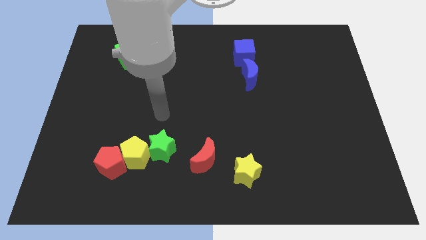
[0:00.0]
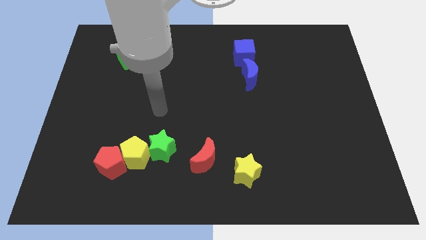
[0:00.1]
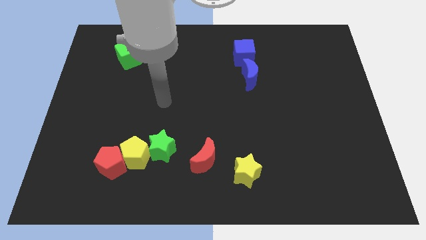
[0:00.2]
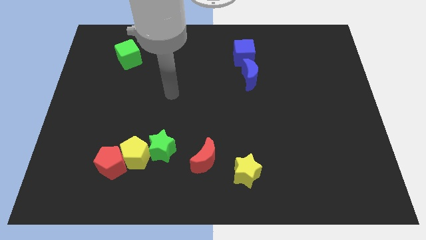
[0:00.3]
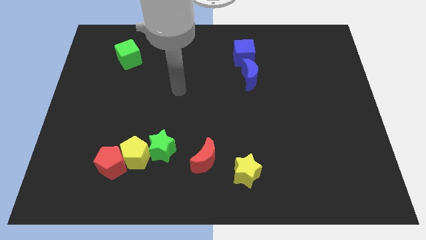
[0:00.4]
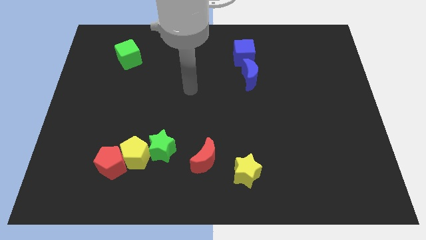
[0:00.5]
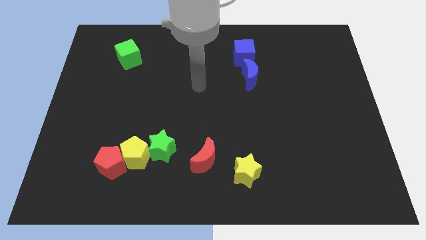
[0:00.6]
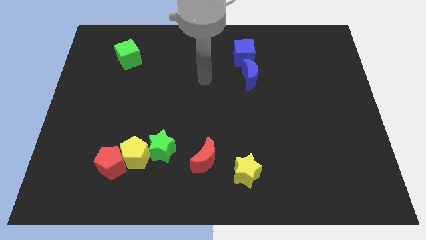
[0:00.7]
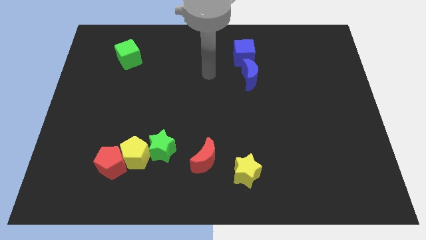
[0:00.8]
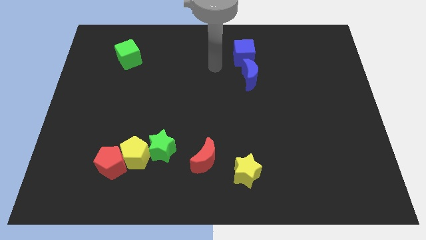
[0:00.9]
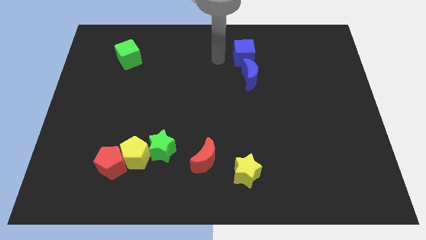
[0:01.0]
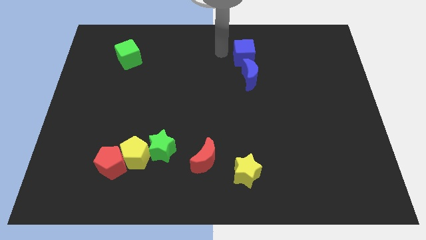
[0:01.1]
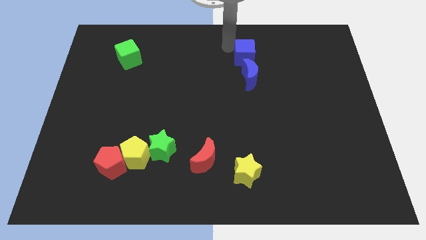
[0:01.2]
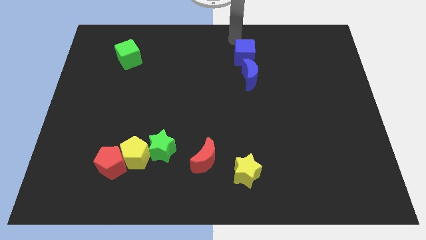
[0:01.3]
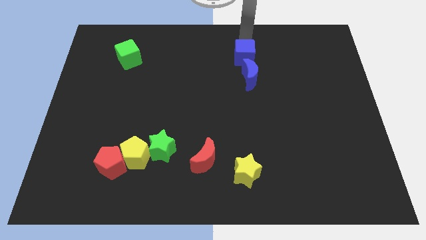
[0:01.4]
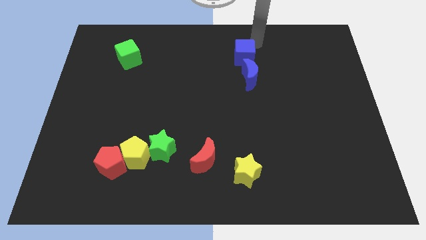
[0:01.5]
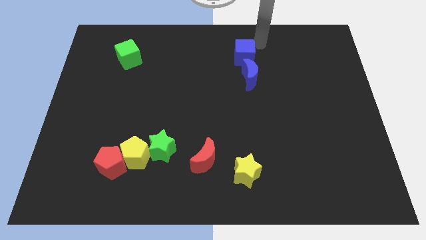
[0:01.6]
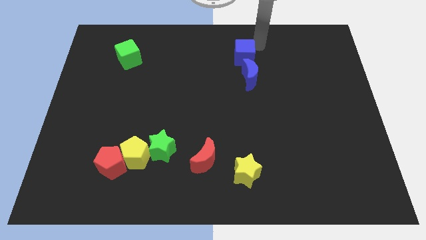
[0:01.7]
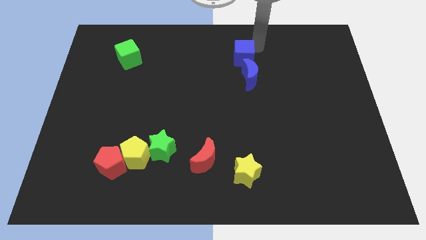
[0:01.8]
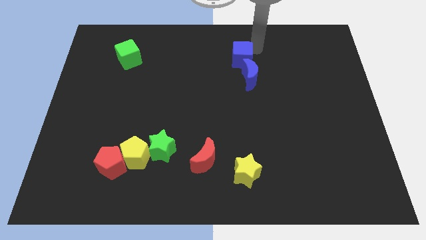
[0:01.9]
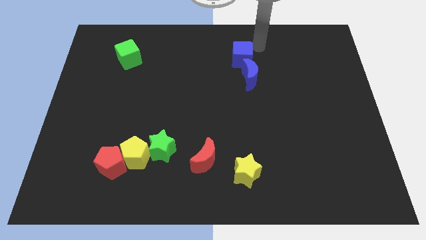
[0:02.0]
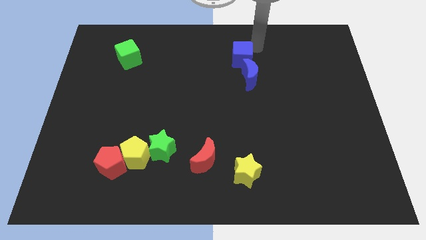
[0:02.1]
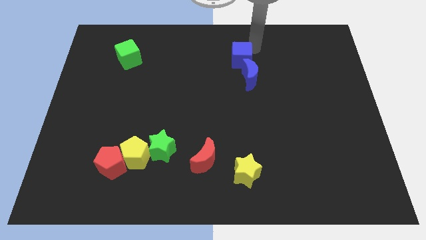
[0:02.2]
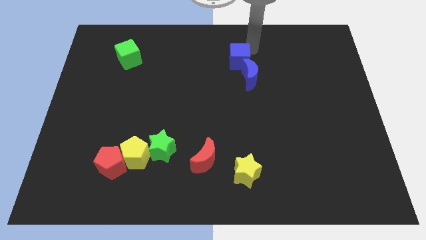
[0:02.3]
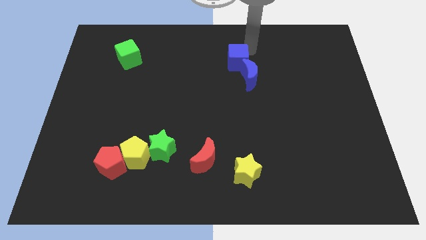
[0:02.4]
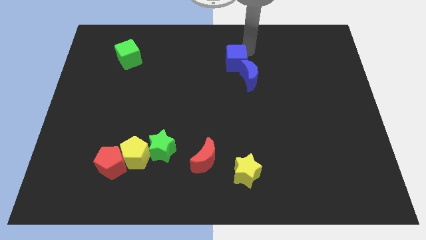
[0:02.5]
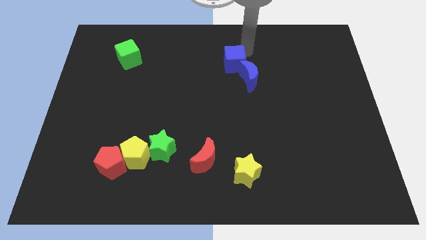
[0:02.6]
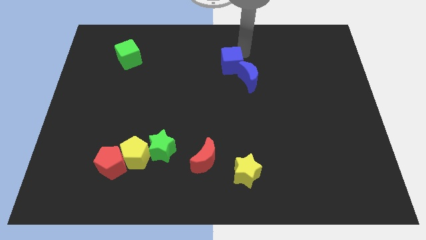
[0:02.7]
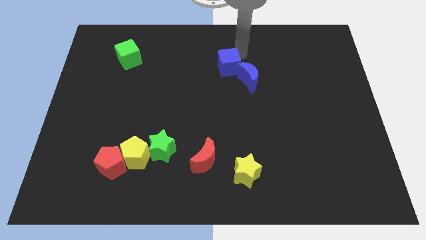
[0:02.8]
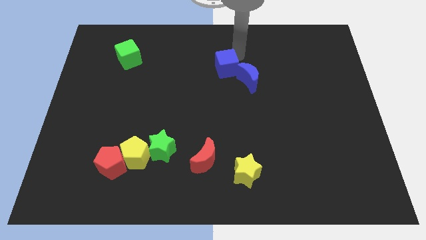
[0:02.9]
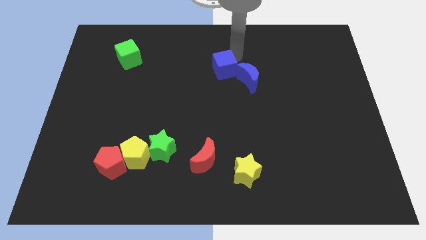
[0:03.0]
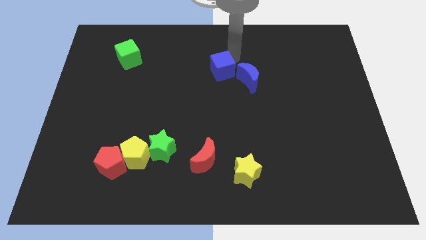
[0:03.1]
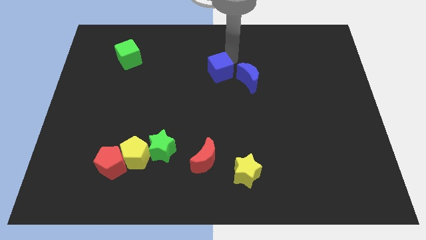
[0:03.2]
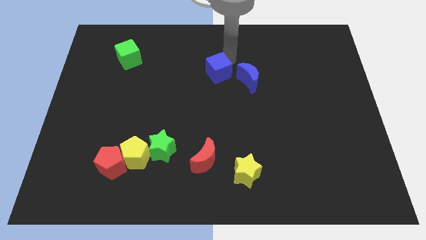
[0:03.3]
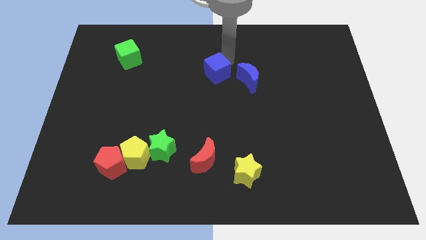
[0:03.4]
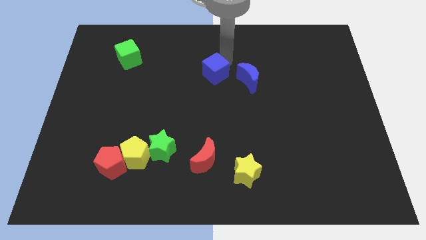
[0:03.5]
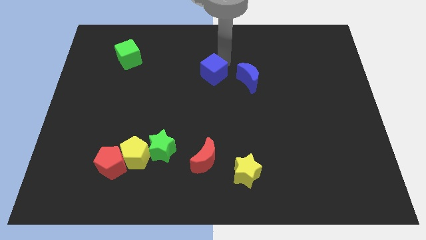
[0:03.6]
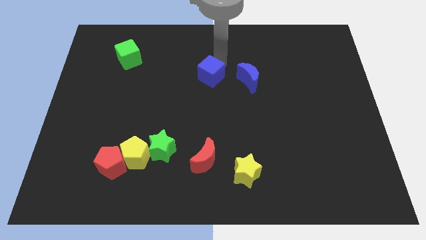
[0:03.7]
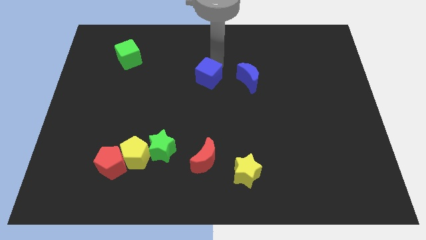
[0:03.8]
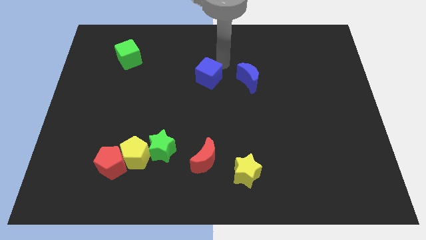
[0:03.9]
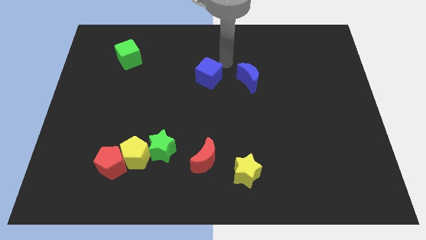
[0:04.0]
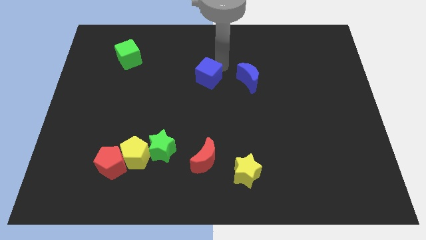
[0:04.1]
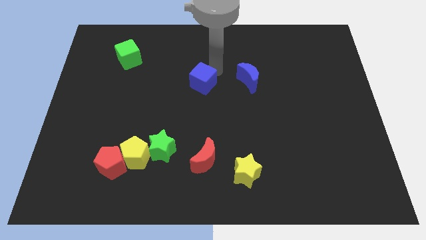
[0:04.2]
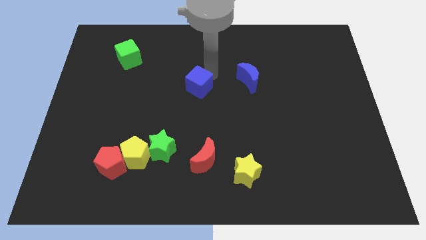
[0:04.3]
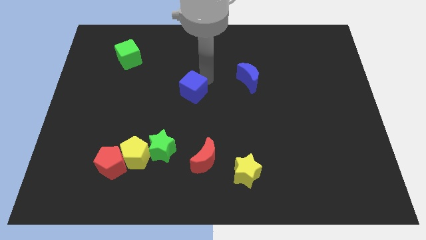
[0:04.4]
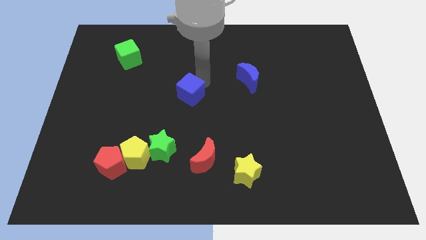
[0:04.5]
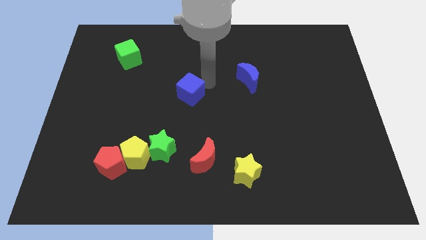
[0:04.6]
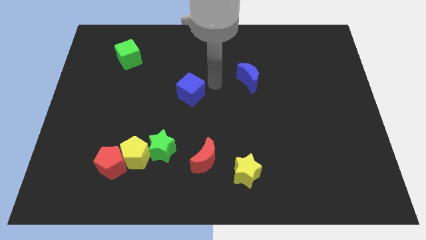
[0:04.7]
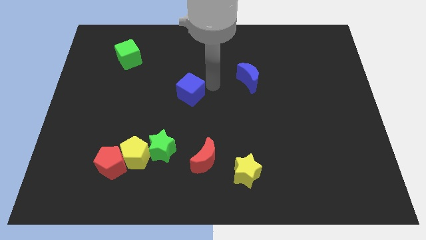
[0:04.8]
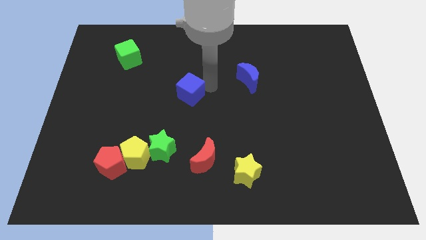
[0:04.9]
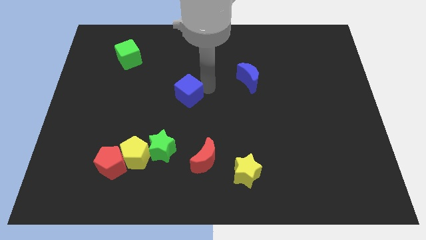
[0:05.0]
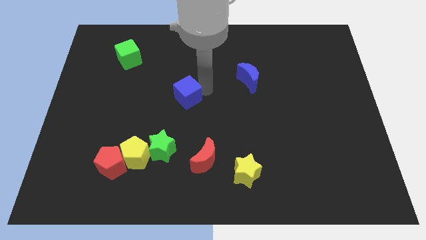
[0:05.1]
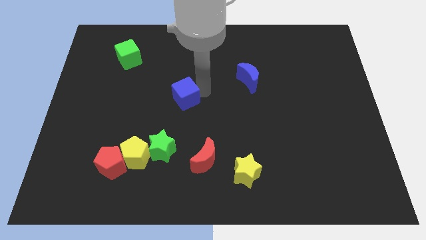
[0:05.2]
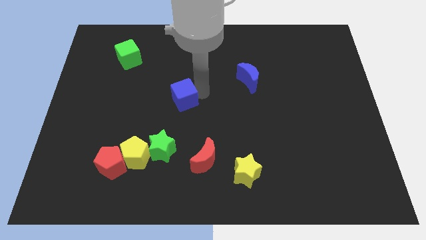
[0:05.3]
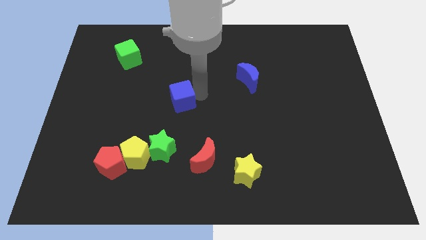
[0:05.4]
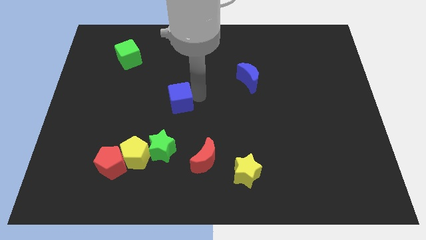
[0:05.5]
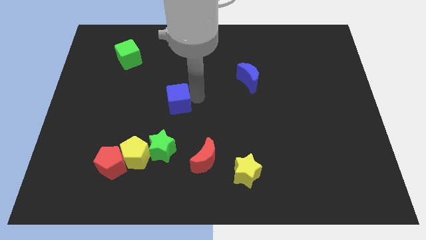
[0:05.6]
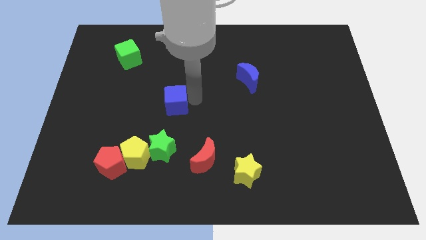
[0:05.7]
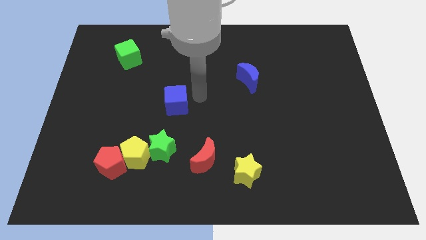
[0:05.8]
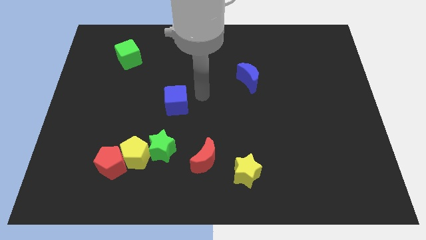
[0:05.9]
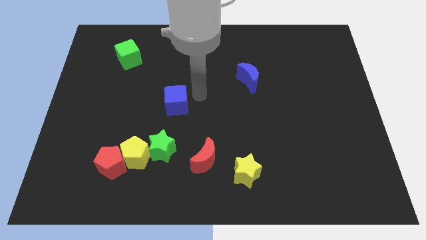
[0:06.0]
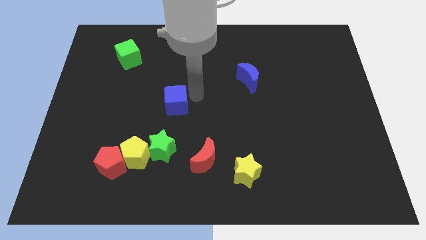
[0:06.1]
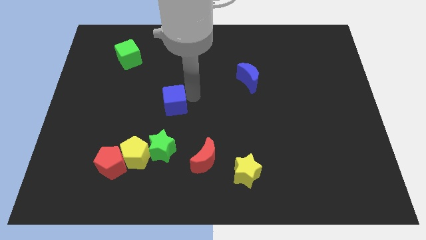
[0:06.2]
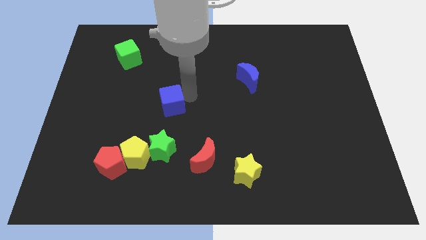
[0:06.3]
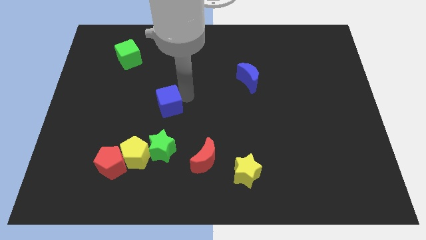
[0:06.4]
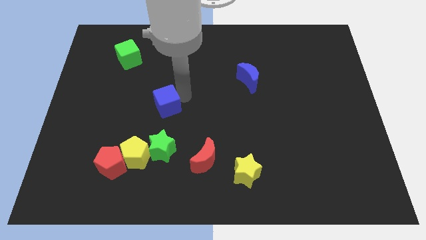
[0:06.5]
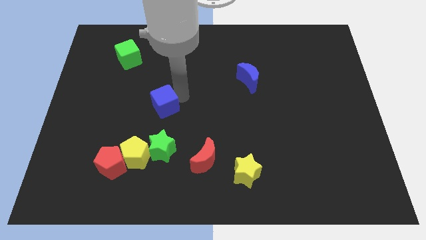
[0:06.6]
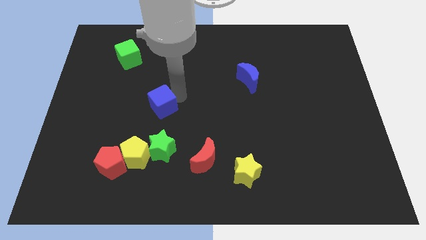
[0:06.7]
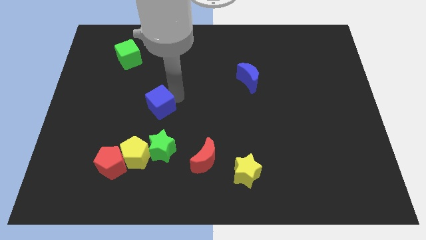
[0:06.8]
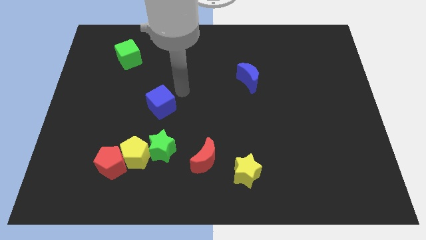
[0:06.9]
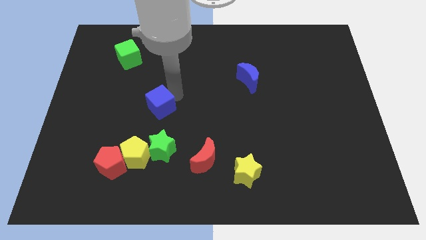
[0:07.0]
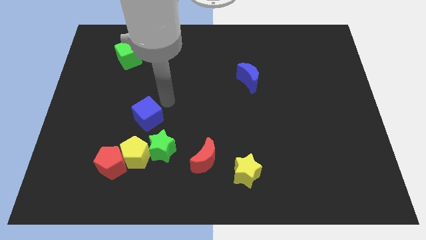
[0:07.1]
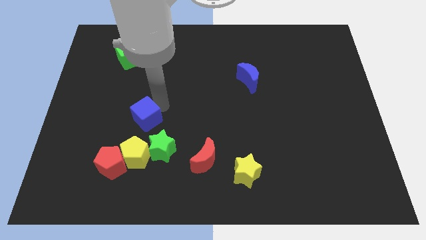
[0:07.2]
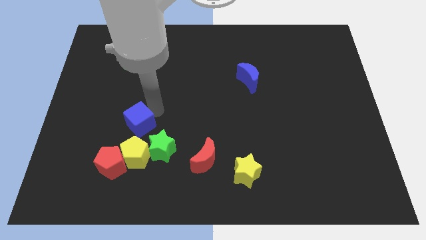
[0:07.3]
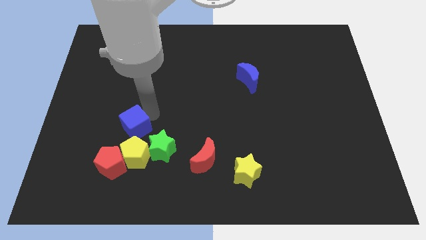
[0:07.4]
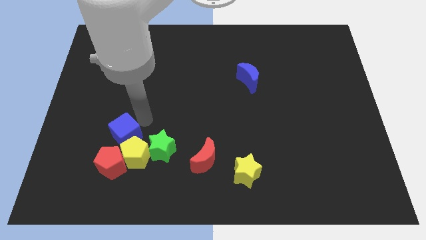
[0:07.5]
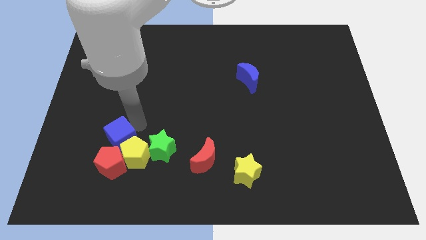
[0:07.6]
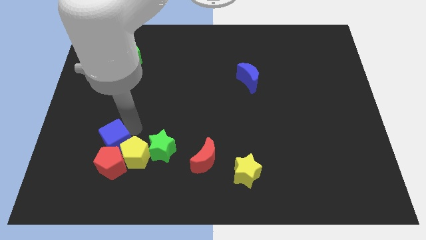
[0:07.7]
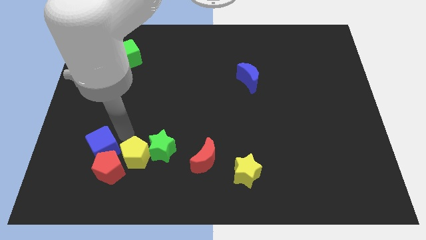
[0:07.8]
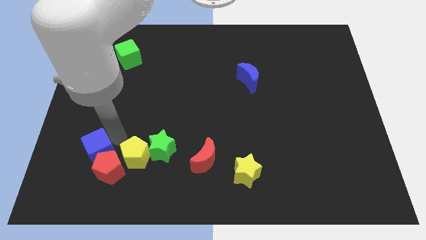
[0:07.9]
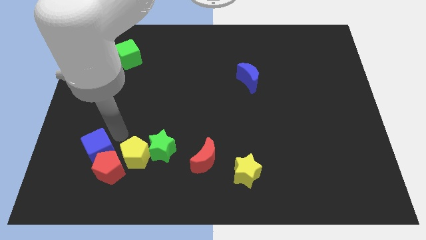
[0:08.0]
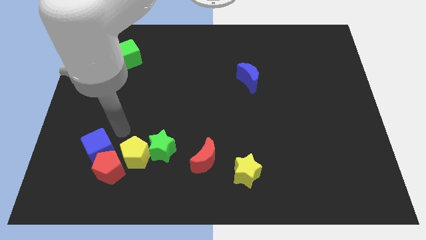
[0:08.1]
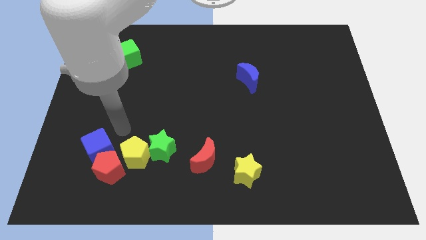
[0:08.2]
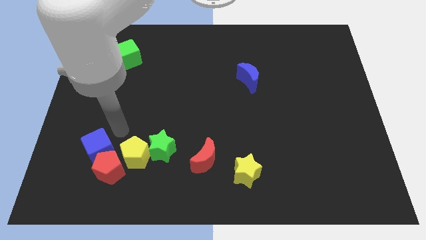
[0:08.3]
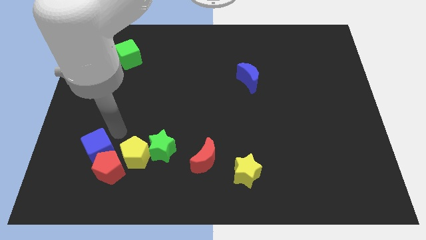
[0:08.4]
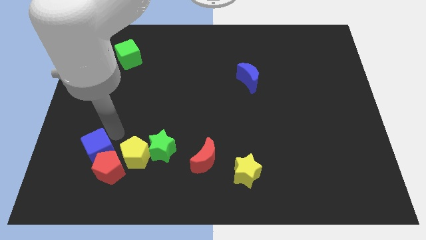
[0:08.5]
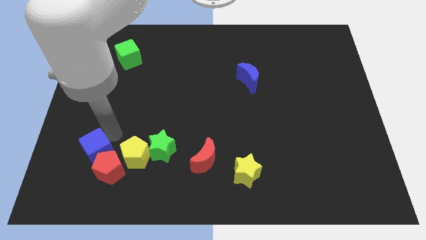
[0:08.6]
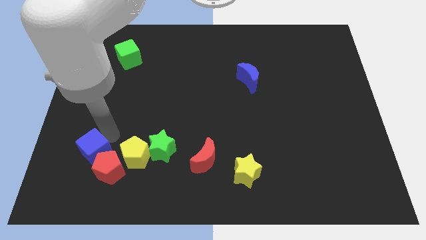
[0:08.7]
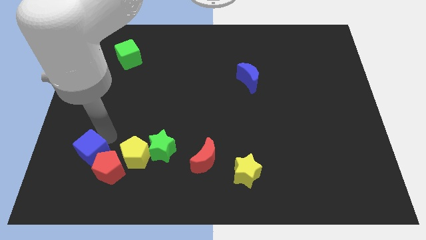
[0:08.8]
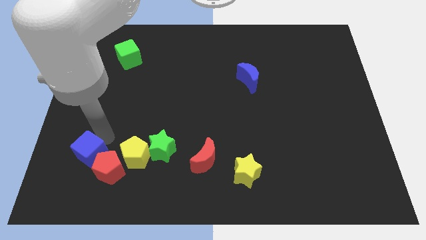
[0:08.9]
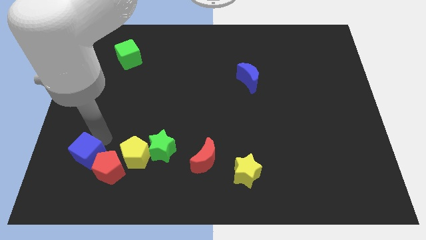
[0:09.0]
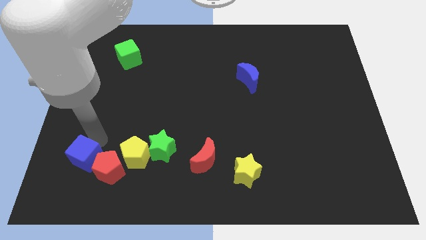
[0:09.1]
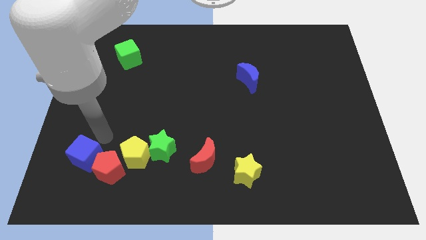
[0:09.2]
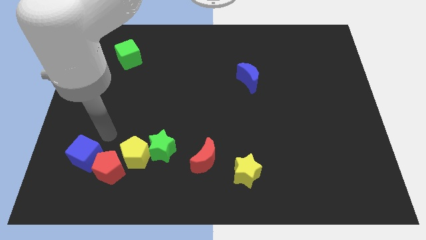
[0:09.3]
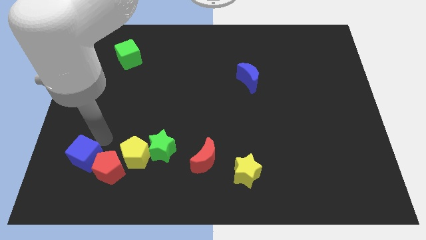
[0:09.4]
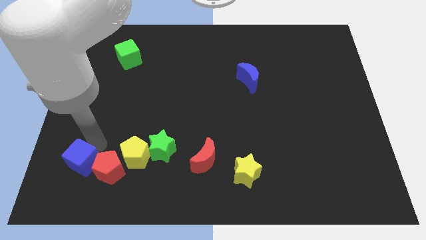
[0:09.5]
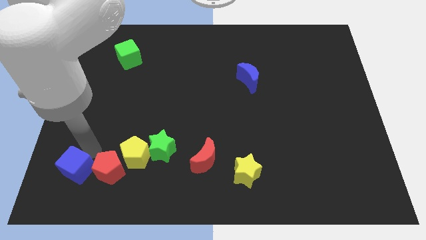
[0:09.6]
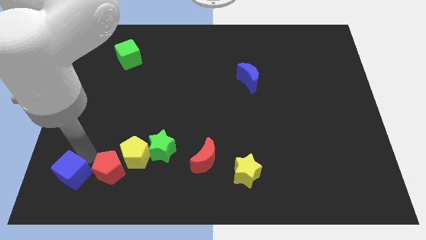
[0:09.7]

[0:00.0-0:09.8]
slide the blue cube to the lower left corner
